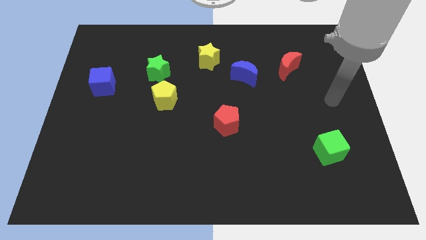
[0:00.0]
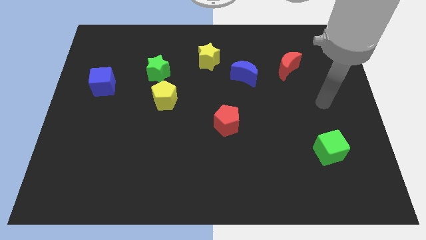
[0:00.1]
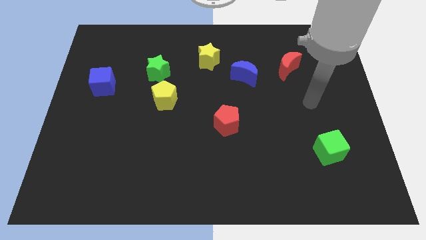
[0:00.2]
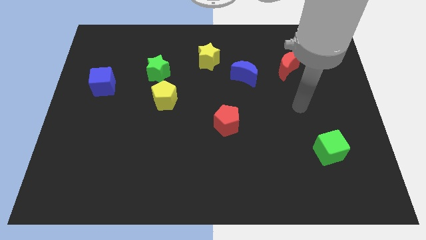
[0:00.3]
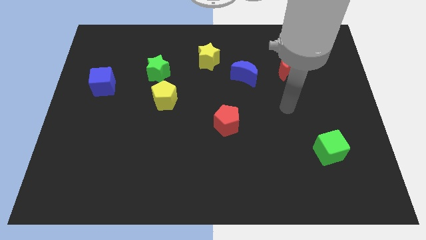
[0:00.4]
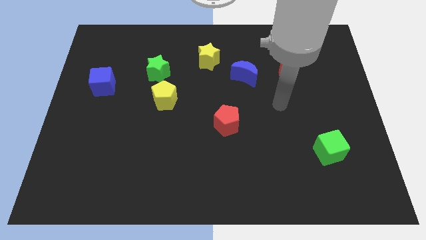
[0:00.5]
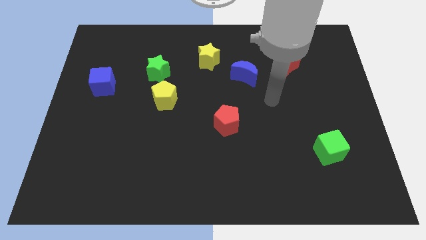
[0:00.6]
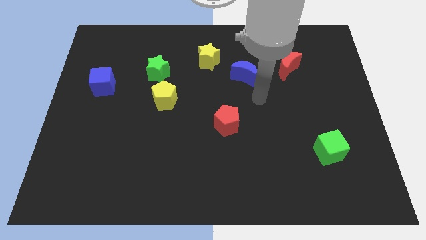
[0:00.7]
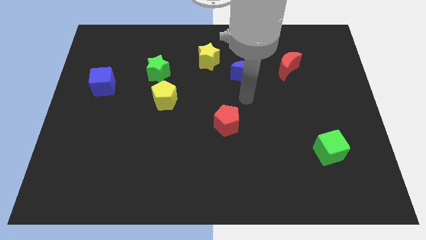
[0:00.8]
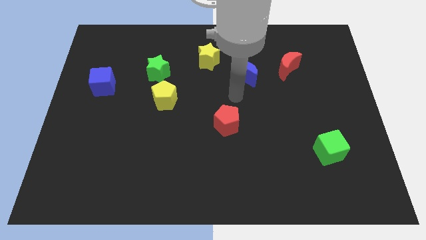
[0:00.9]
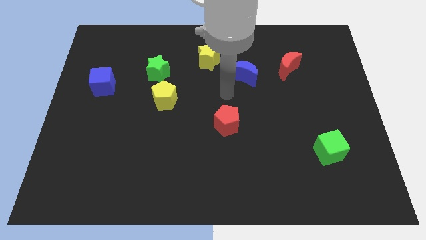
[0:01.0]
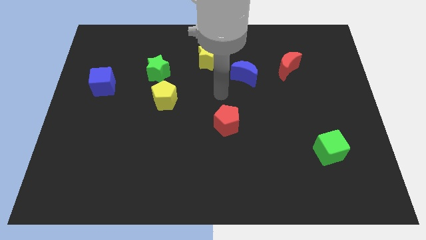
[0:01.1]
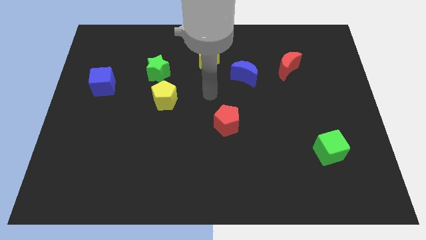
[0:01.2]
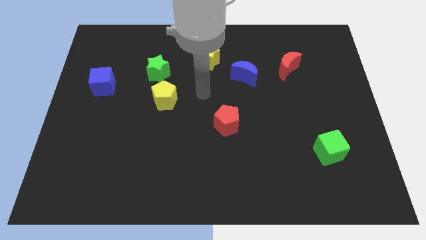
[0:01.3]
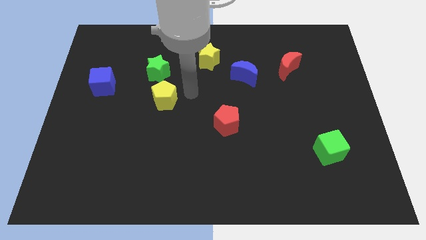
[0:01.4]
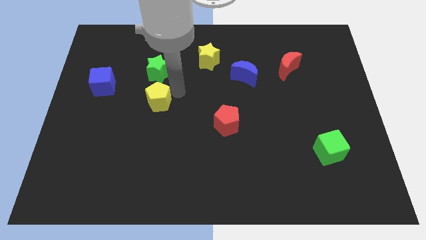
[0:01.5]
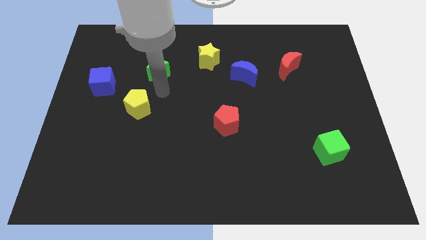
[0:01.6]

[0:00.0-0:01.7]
pull the green star apart from the yellow pentagon

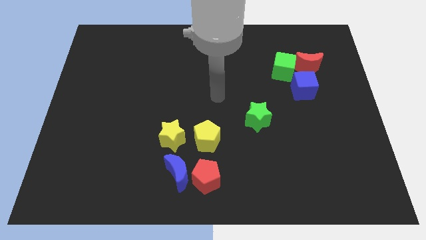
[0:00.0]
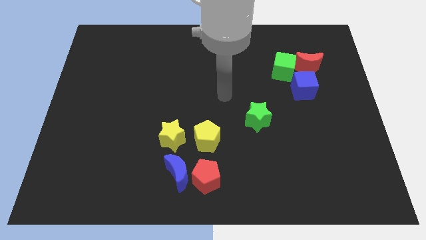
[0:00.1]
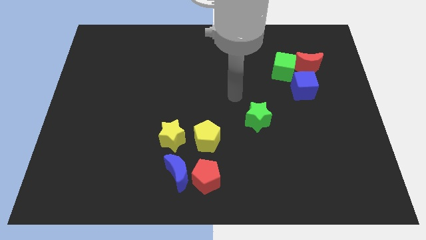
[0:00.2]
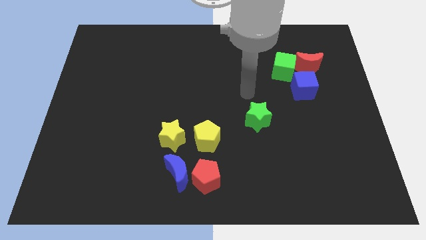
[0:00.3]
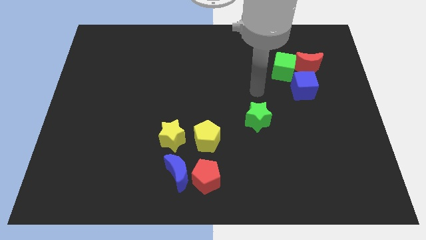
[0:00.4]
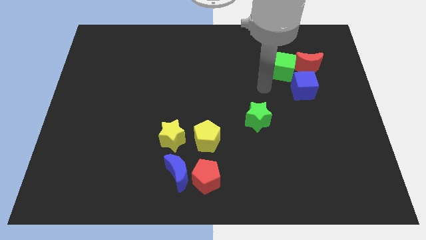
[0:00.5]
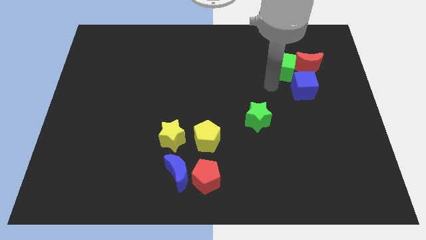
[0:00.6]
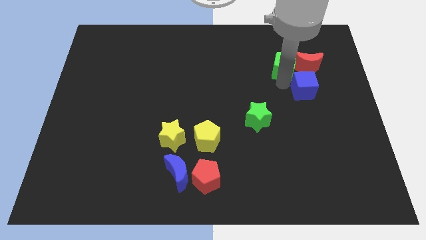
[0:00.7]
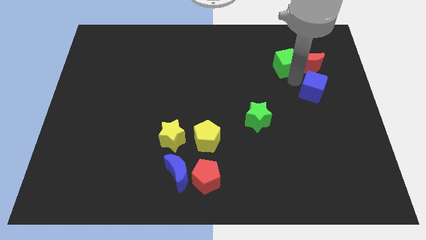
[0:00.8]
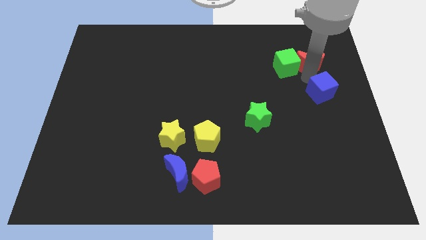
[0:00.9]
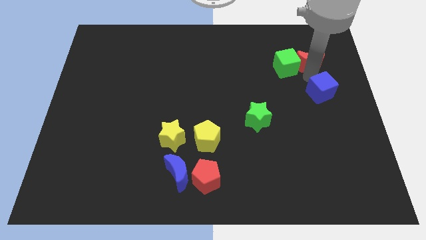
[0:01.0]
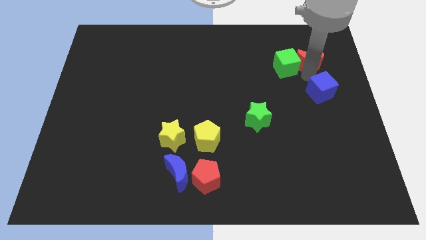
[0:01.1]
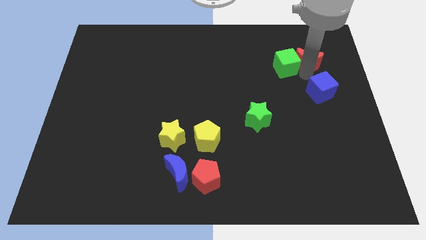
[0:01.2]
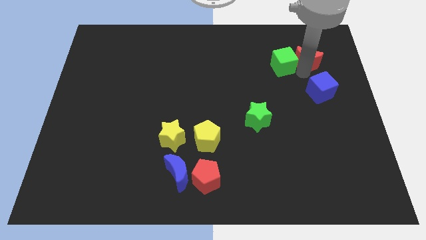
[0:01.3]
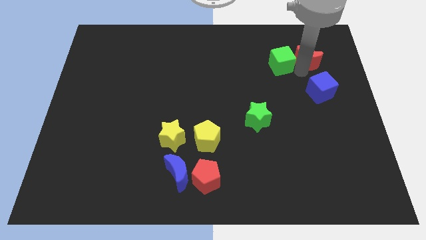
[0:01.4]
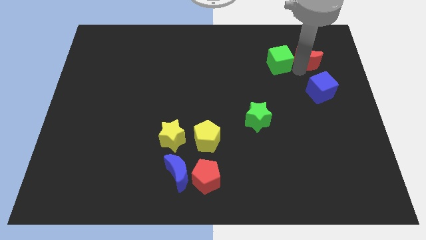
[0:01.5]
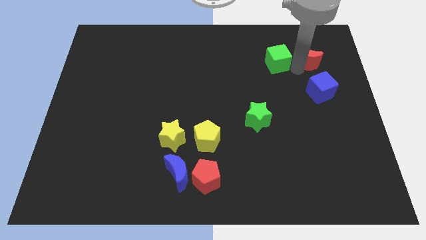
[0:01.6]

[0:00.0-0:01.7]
pull the green cube apart from the red moon and blue cube

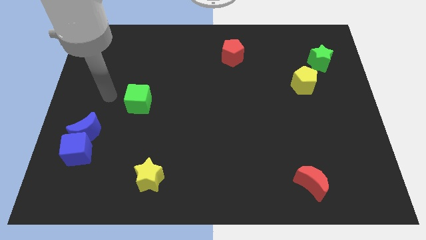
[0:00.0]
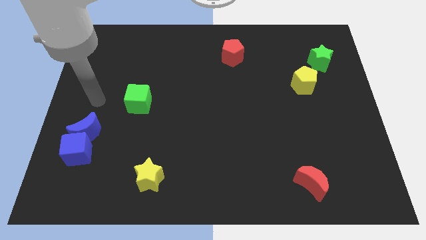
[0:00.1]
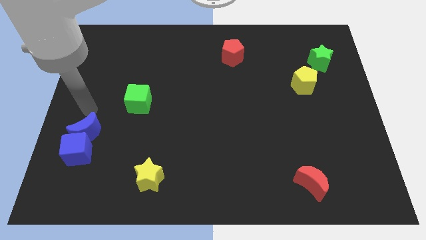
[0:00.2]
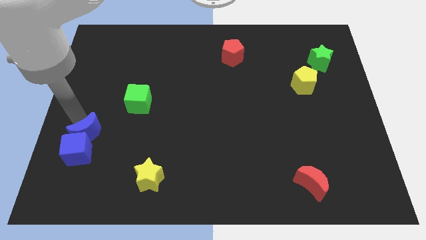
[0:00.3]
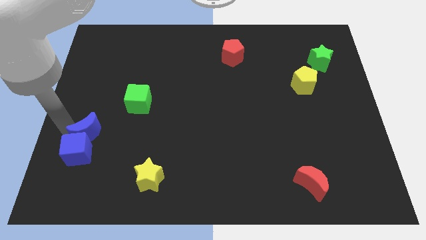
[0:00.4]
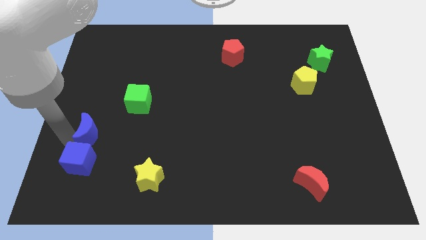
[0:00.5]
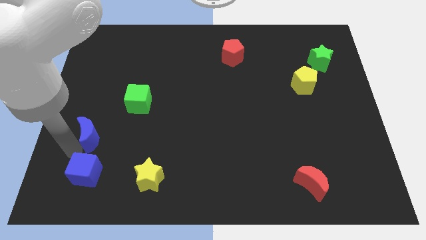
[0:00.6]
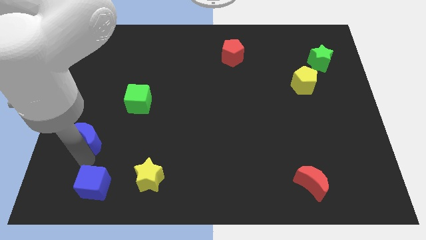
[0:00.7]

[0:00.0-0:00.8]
pull the blue moon apart from the blue cube

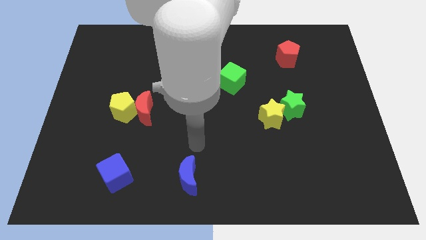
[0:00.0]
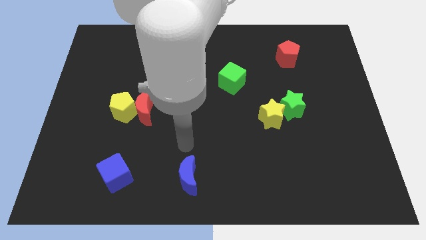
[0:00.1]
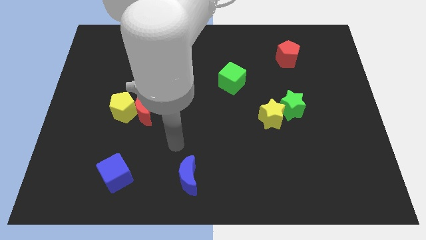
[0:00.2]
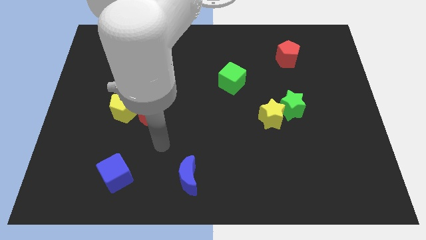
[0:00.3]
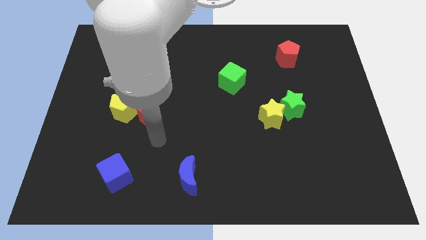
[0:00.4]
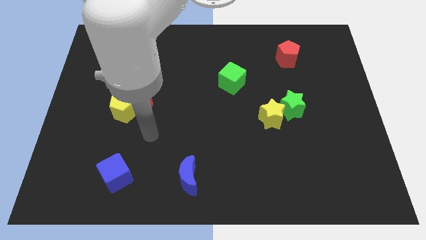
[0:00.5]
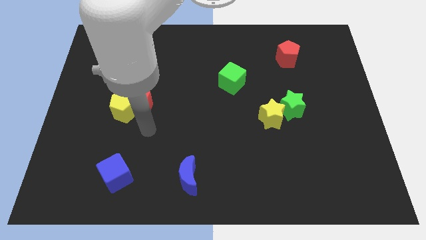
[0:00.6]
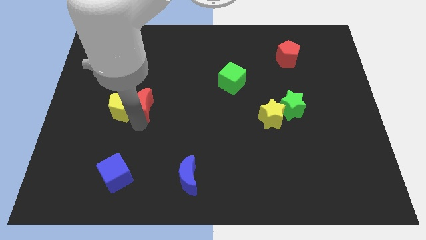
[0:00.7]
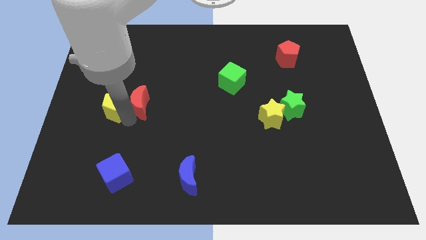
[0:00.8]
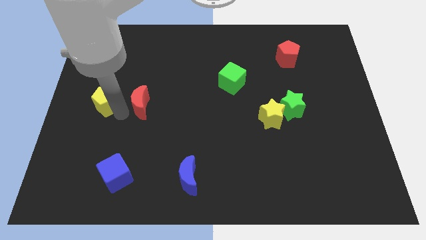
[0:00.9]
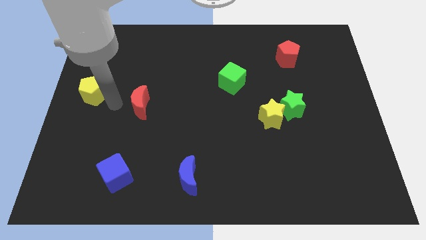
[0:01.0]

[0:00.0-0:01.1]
separate the red moon from the yellow pentagon

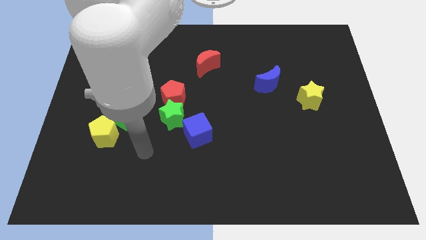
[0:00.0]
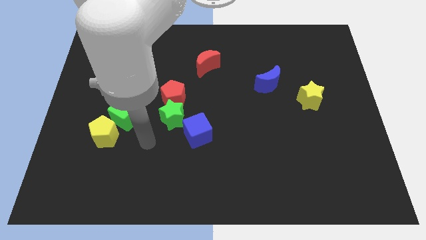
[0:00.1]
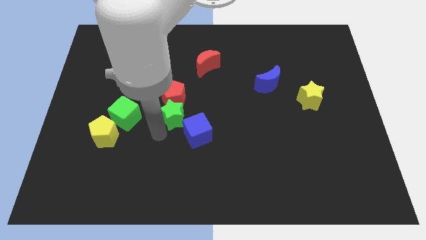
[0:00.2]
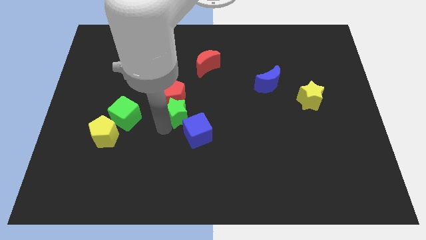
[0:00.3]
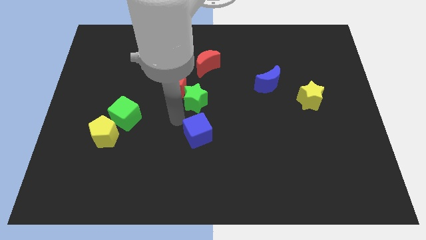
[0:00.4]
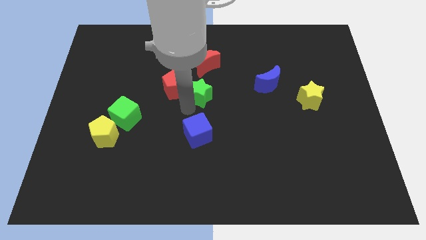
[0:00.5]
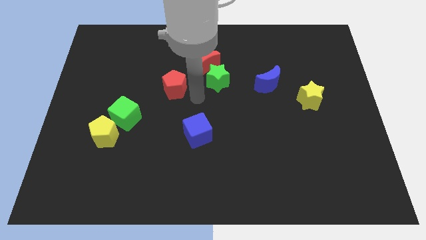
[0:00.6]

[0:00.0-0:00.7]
move the red pentagon away from the green star

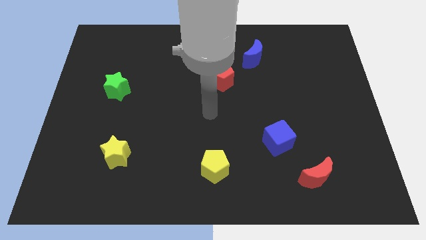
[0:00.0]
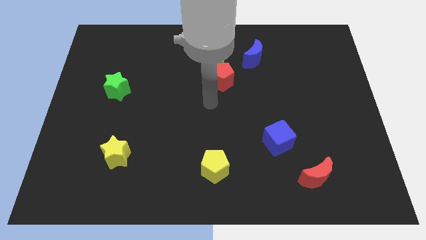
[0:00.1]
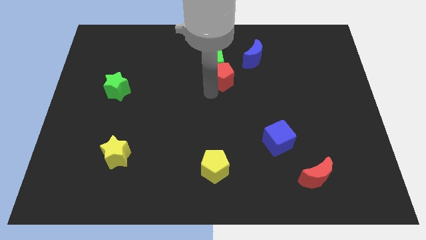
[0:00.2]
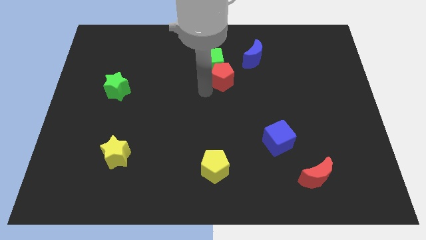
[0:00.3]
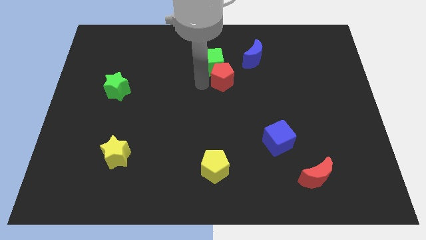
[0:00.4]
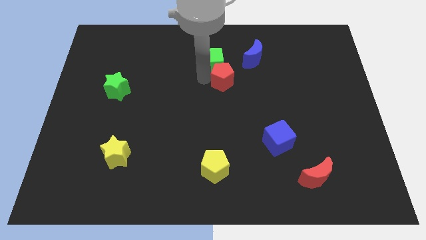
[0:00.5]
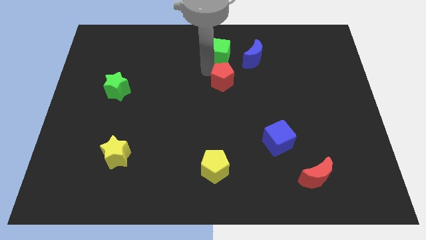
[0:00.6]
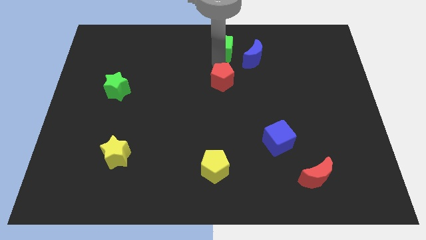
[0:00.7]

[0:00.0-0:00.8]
move the red pentagon away from the green cube

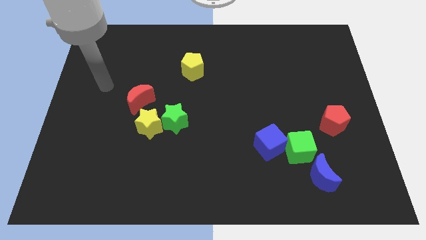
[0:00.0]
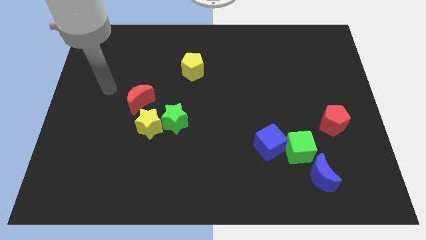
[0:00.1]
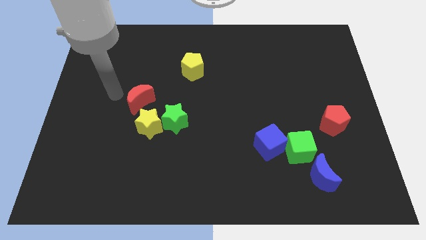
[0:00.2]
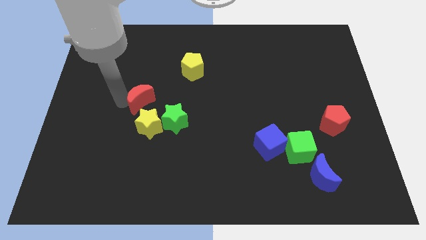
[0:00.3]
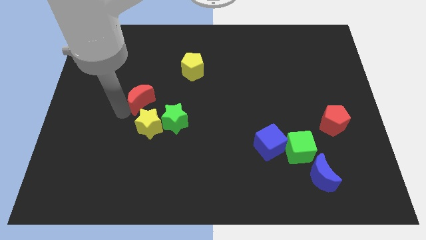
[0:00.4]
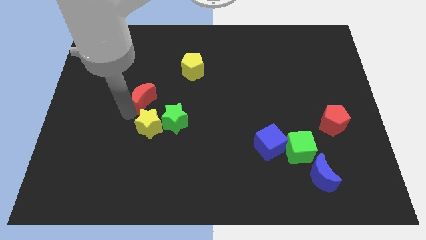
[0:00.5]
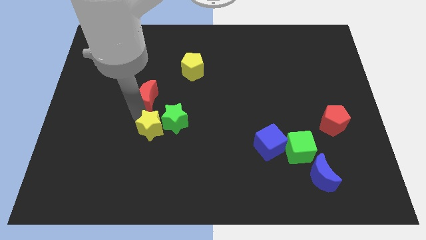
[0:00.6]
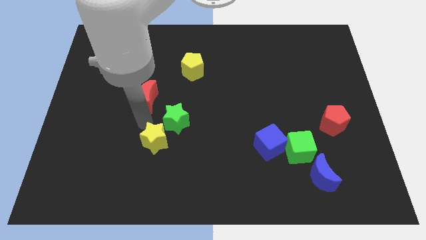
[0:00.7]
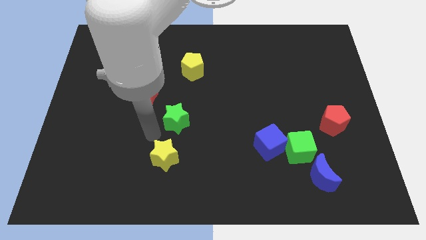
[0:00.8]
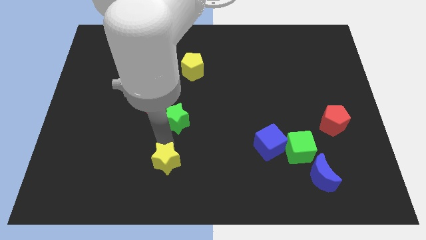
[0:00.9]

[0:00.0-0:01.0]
move the green star away from the yellow star

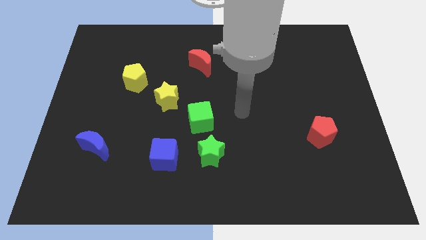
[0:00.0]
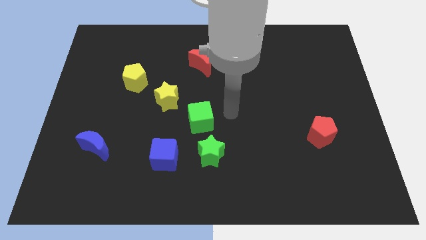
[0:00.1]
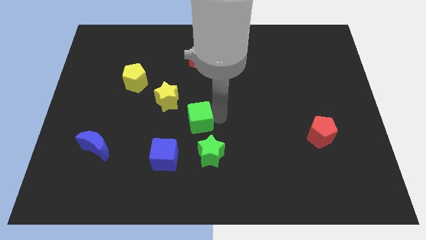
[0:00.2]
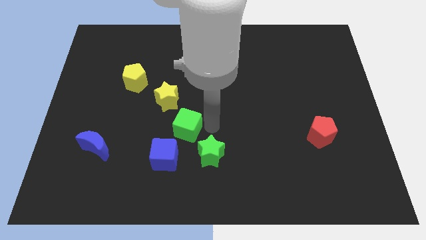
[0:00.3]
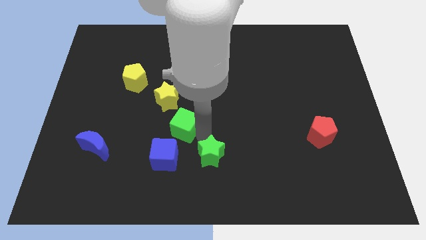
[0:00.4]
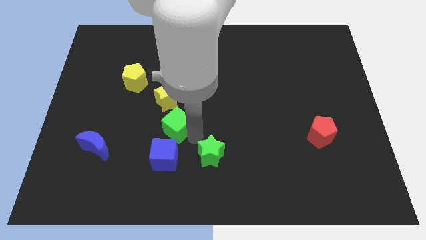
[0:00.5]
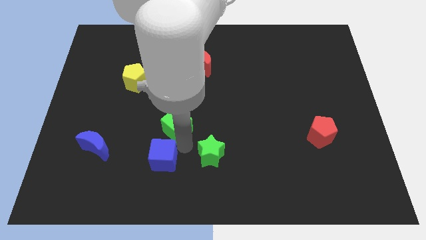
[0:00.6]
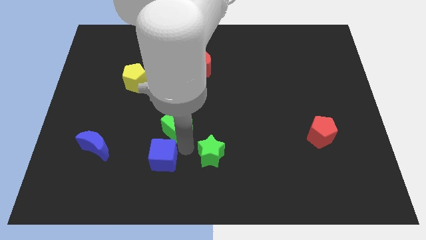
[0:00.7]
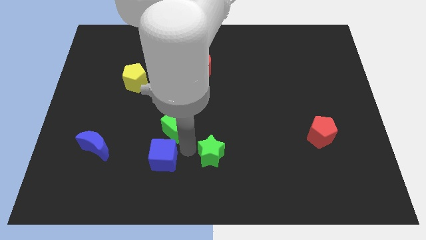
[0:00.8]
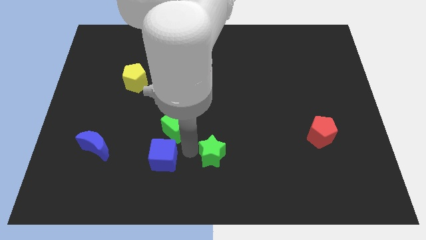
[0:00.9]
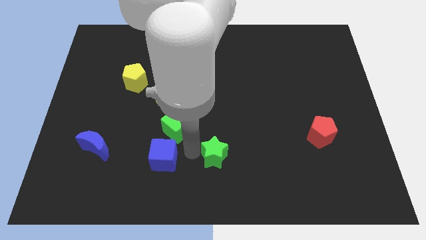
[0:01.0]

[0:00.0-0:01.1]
move the green star away from the green cube and blue cube

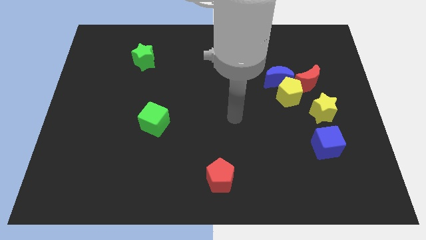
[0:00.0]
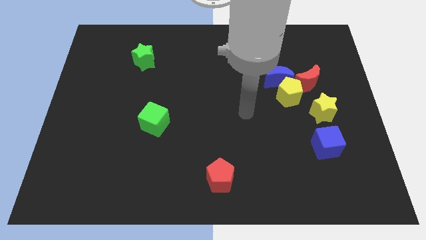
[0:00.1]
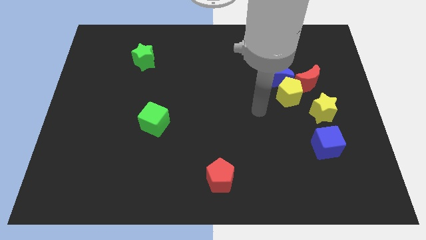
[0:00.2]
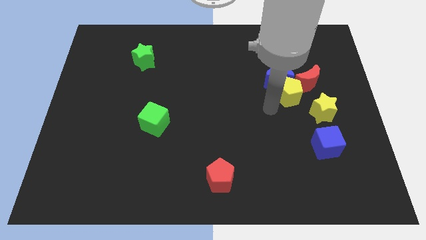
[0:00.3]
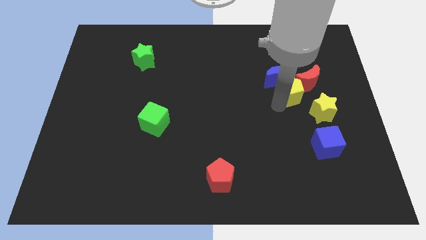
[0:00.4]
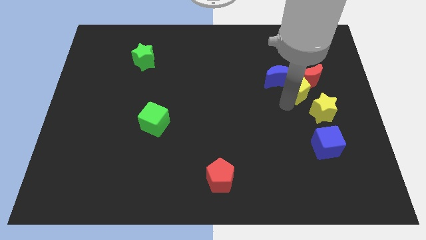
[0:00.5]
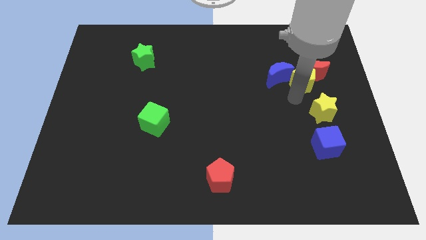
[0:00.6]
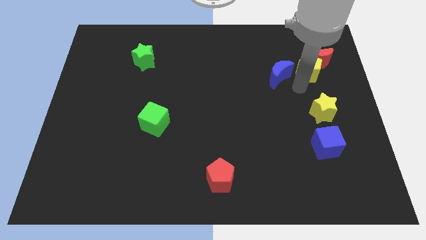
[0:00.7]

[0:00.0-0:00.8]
separate the blue moon from the yellow pentagon and red moon
